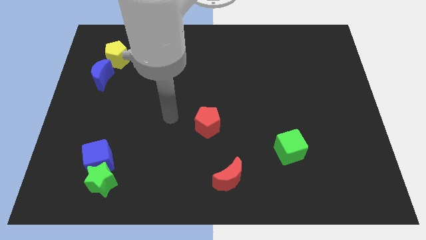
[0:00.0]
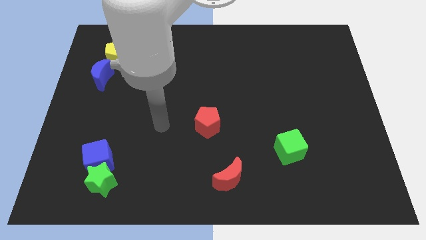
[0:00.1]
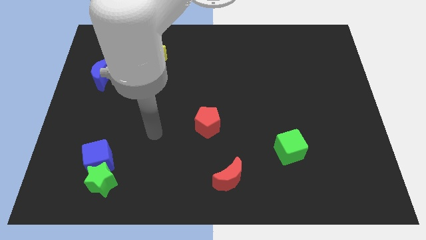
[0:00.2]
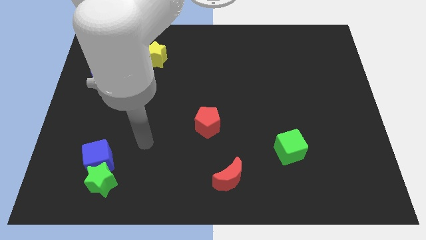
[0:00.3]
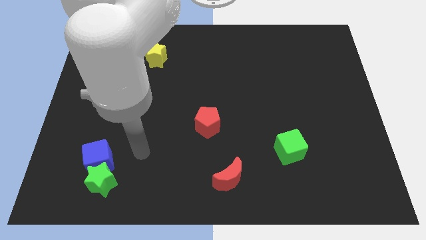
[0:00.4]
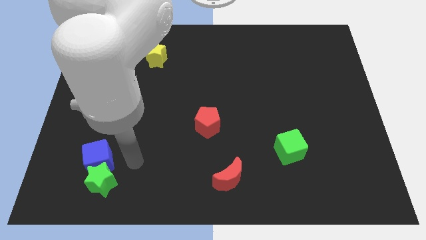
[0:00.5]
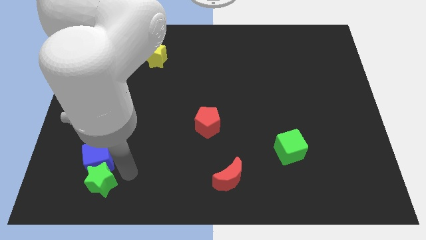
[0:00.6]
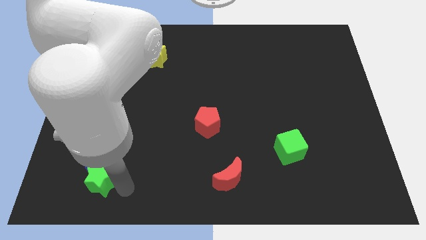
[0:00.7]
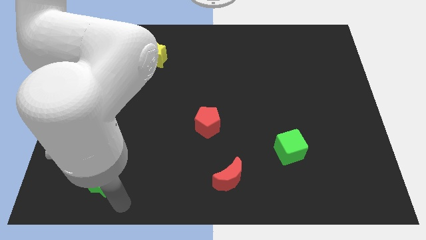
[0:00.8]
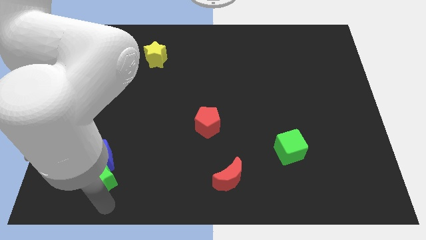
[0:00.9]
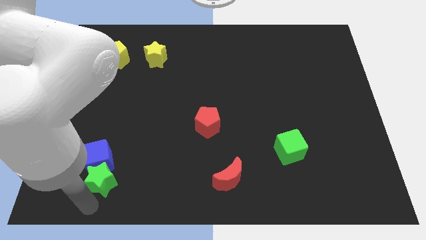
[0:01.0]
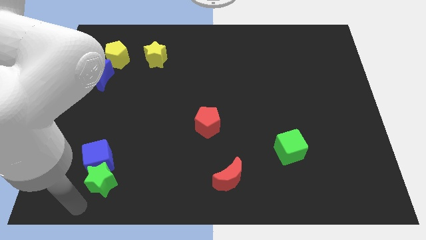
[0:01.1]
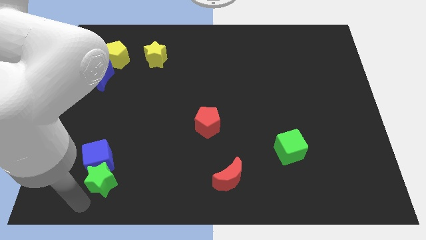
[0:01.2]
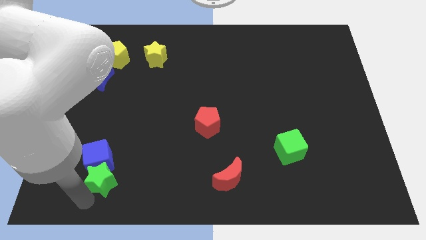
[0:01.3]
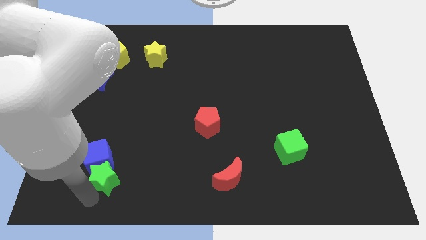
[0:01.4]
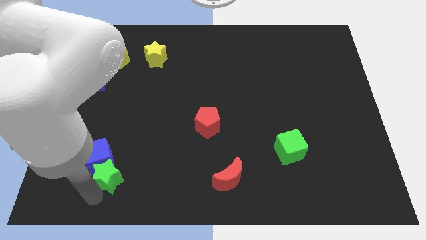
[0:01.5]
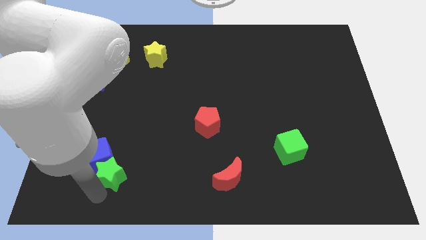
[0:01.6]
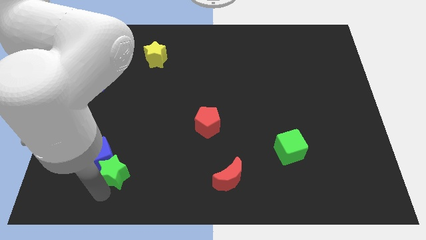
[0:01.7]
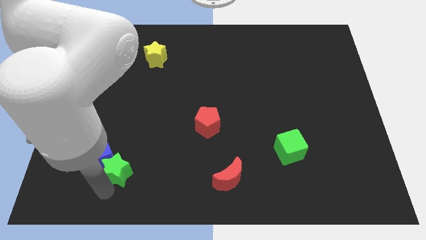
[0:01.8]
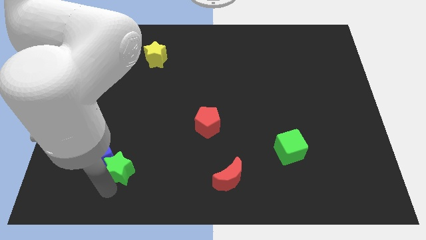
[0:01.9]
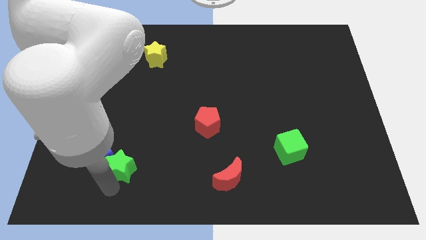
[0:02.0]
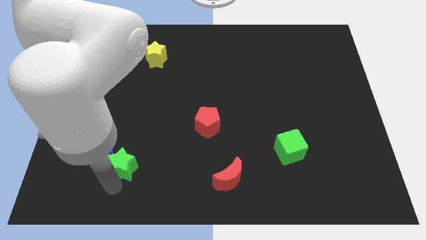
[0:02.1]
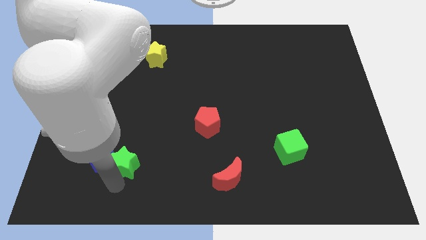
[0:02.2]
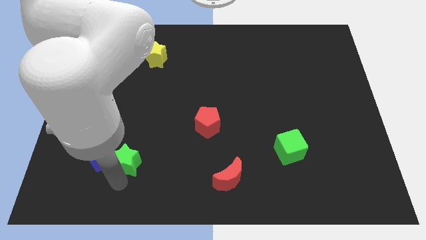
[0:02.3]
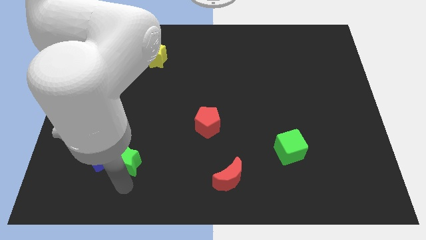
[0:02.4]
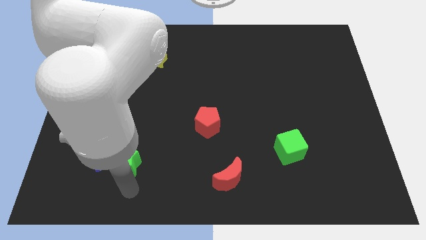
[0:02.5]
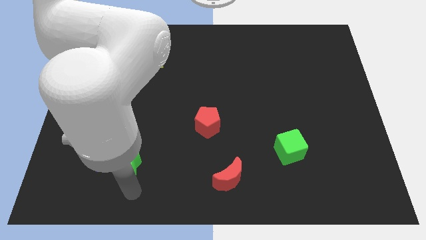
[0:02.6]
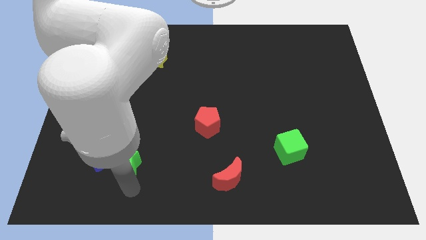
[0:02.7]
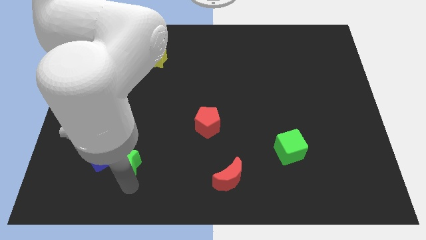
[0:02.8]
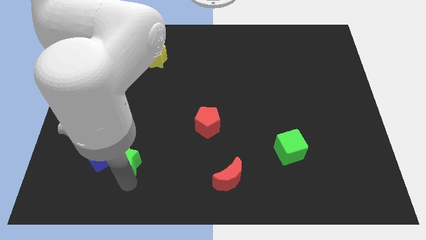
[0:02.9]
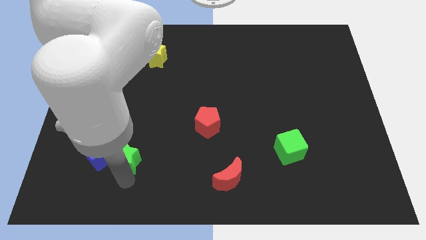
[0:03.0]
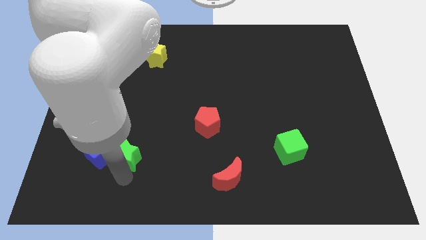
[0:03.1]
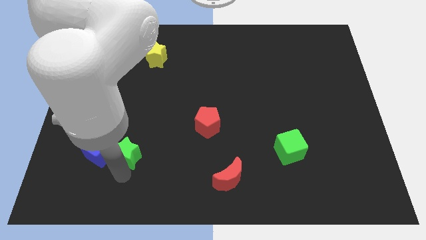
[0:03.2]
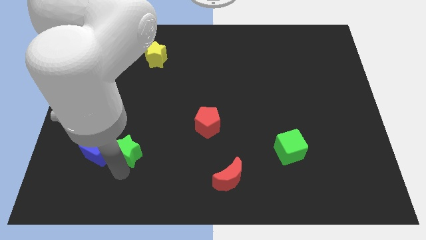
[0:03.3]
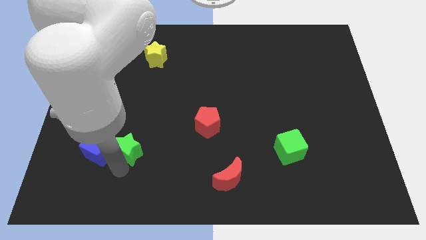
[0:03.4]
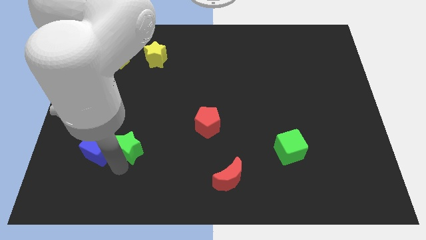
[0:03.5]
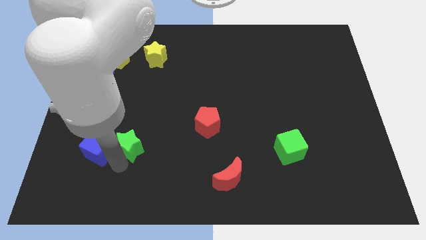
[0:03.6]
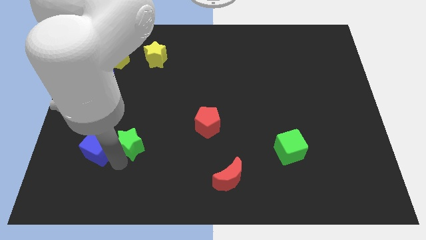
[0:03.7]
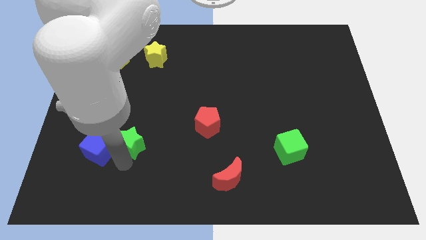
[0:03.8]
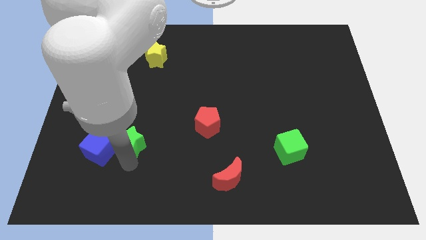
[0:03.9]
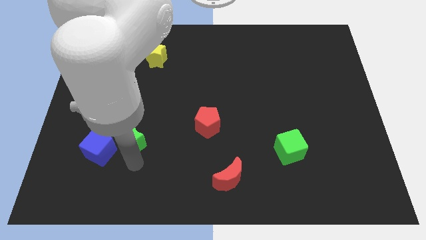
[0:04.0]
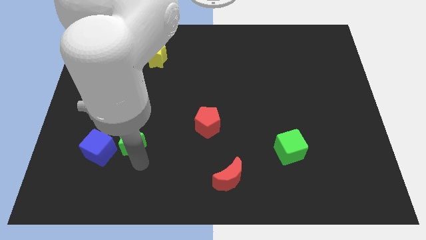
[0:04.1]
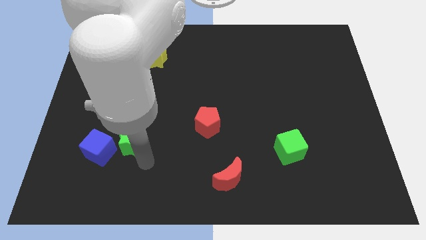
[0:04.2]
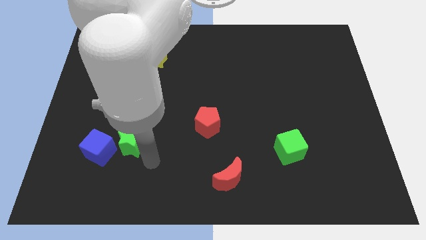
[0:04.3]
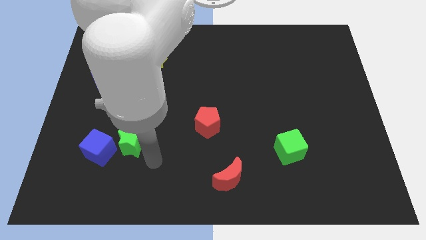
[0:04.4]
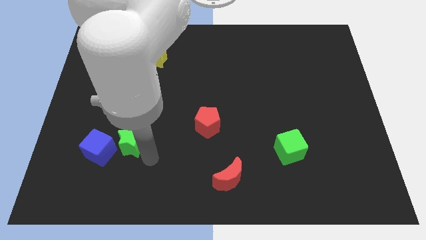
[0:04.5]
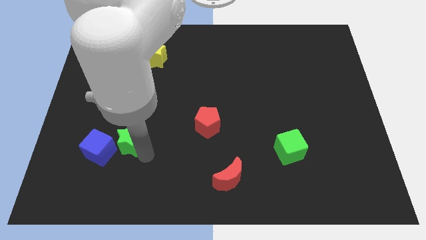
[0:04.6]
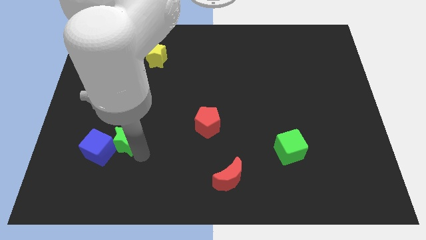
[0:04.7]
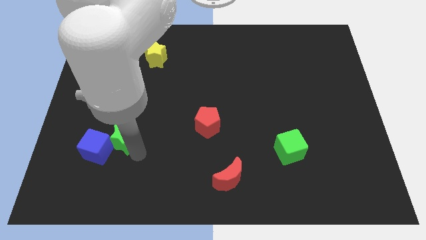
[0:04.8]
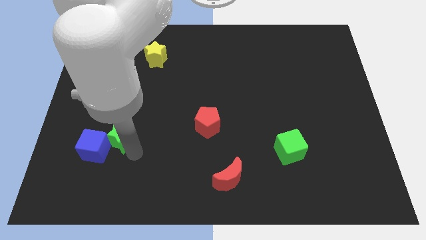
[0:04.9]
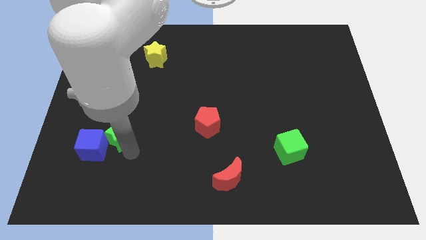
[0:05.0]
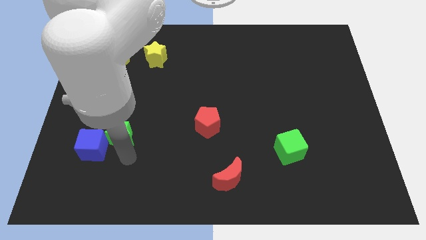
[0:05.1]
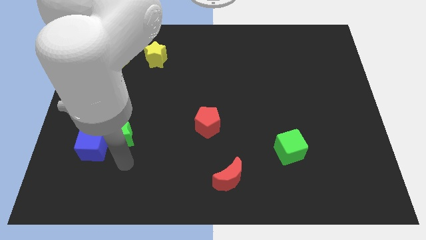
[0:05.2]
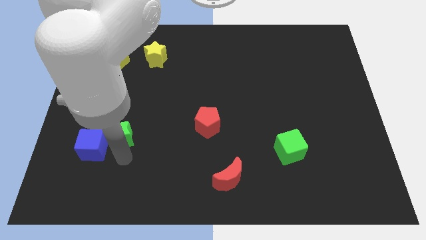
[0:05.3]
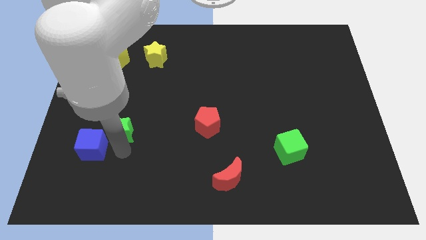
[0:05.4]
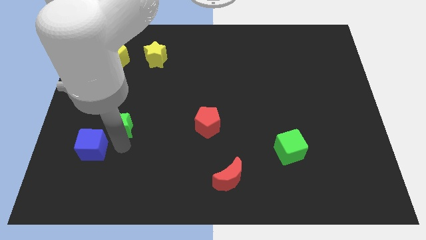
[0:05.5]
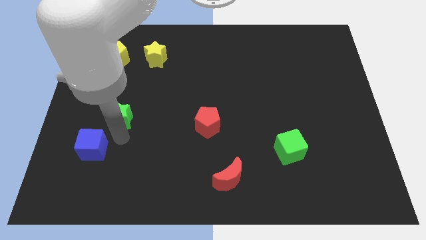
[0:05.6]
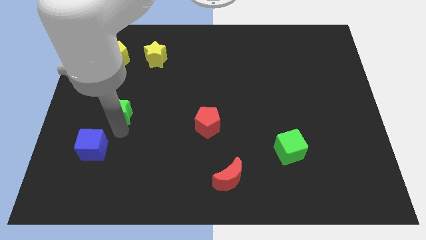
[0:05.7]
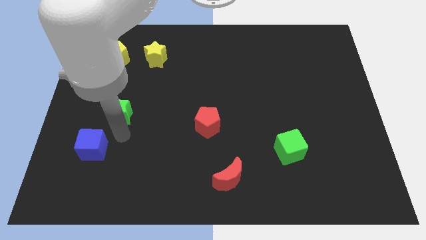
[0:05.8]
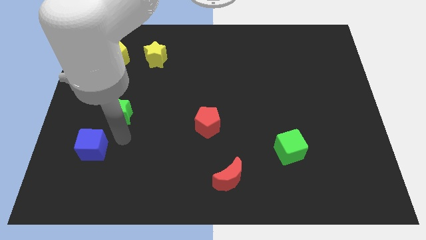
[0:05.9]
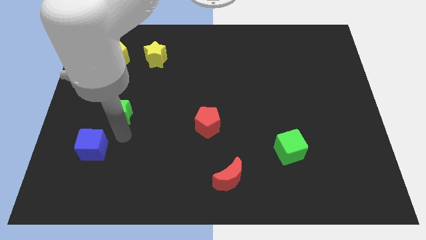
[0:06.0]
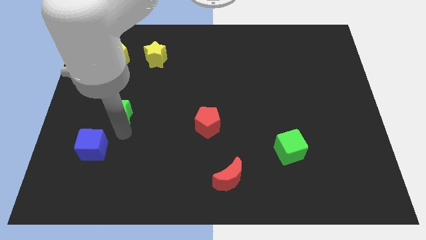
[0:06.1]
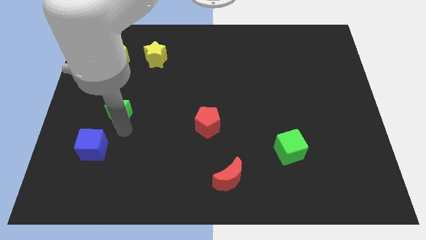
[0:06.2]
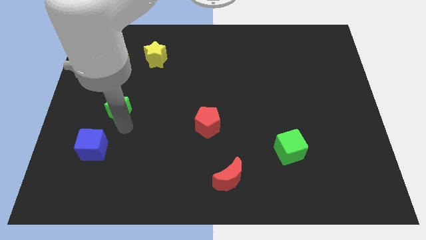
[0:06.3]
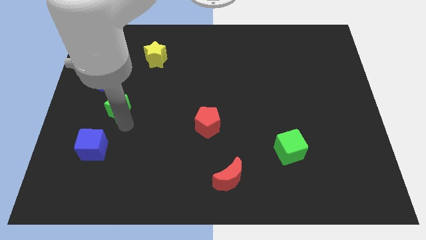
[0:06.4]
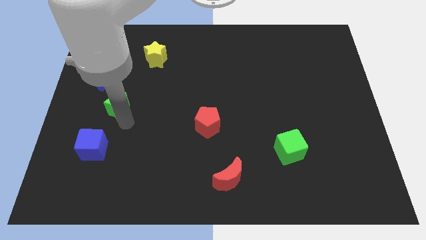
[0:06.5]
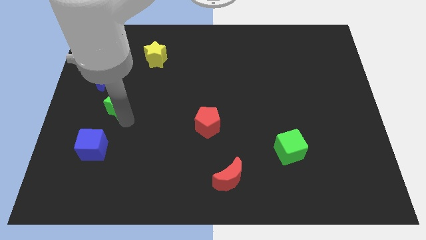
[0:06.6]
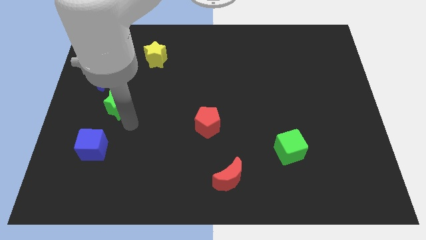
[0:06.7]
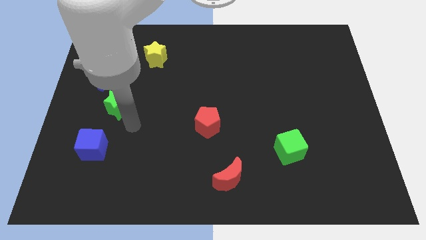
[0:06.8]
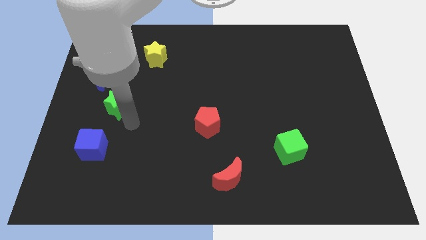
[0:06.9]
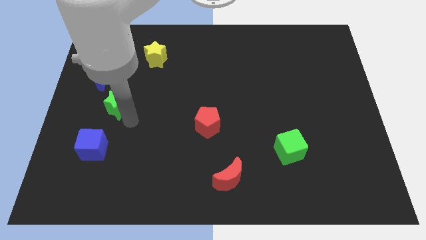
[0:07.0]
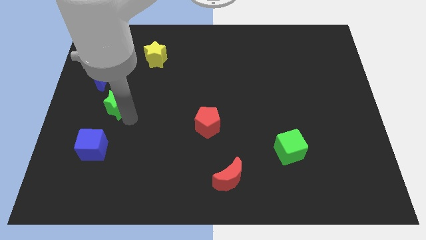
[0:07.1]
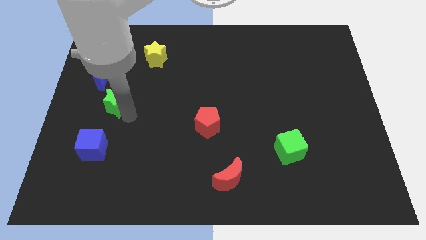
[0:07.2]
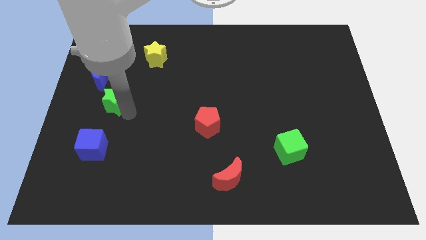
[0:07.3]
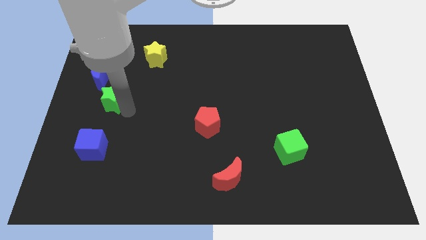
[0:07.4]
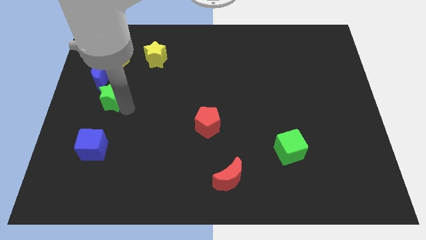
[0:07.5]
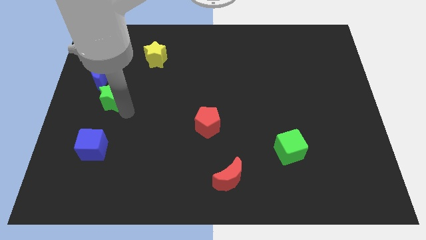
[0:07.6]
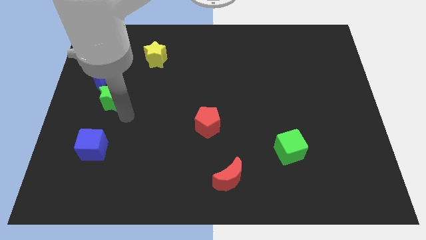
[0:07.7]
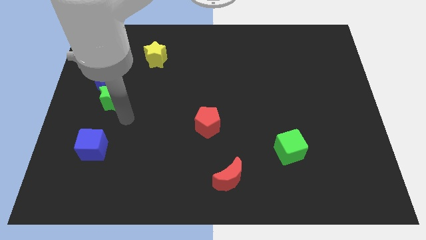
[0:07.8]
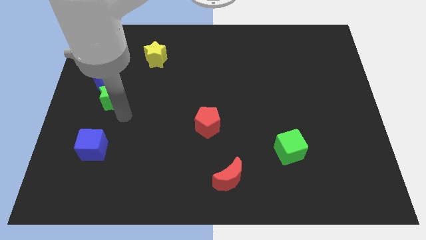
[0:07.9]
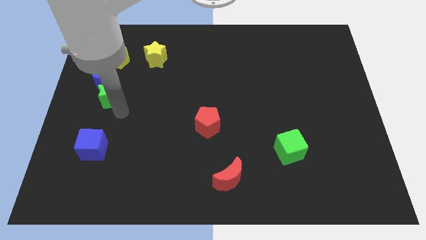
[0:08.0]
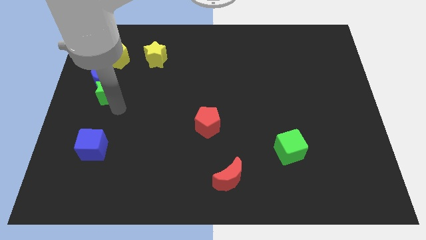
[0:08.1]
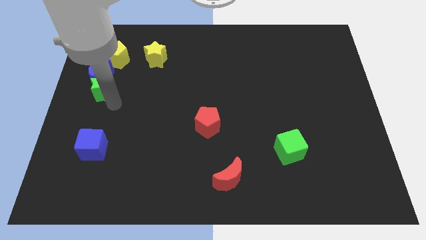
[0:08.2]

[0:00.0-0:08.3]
move the green star close to the blue moon
